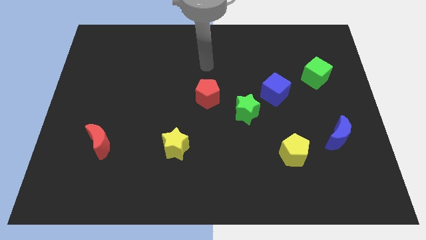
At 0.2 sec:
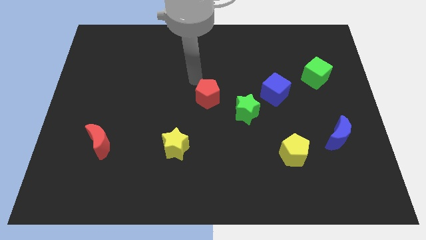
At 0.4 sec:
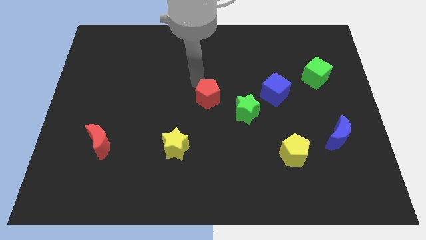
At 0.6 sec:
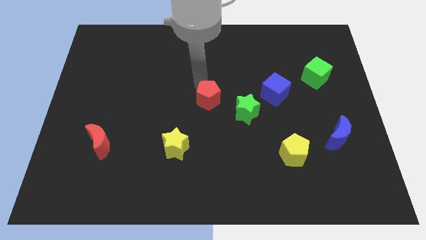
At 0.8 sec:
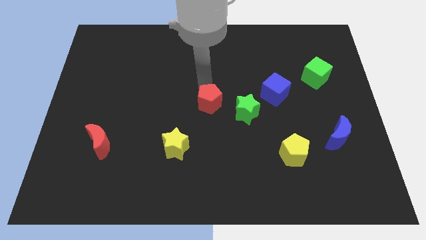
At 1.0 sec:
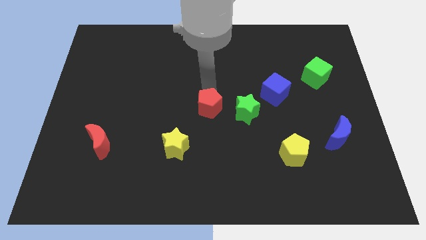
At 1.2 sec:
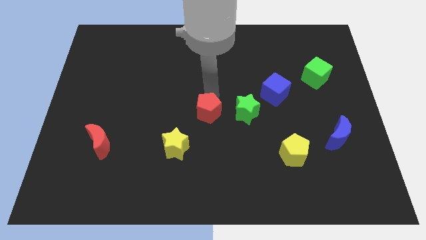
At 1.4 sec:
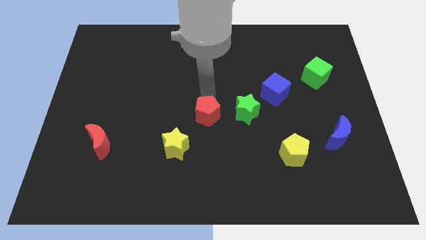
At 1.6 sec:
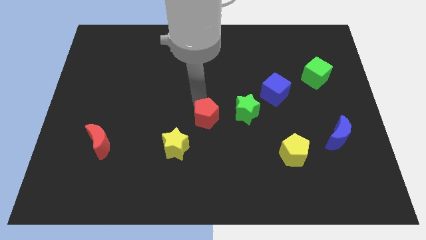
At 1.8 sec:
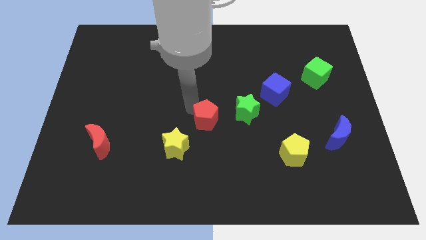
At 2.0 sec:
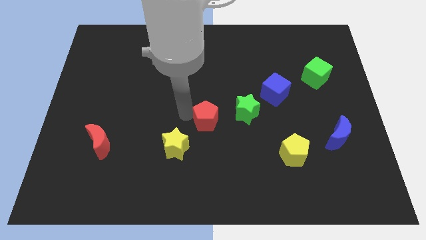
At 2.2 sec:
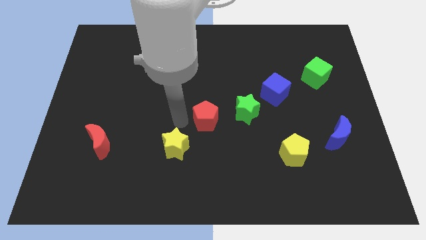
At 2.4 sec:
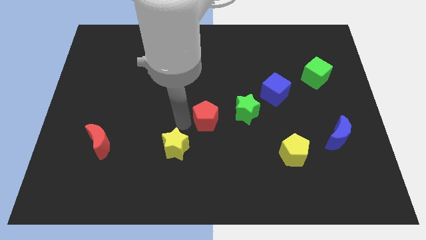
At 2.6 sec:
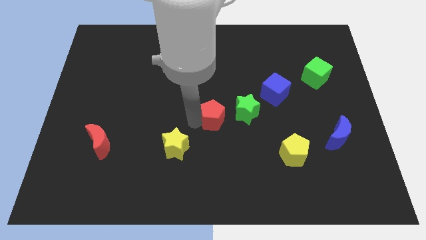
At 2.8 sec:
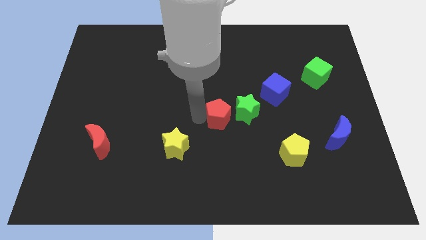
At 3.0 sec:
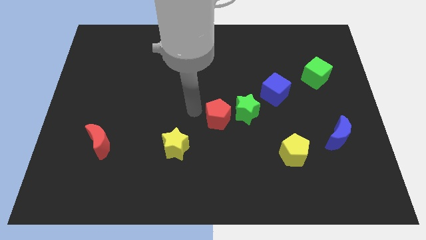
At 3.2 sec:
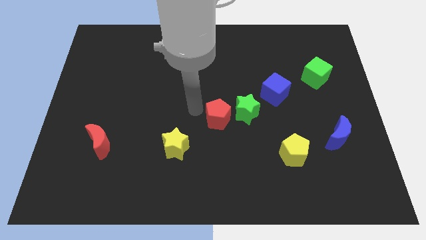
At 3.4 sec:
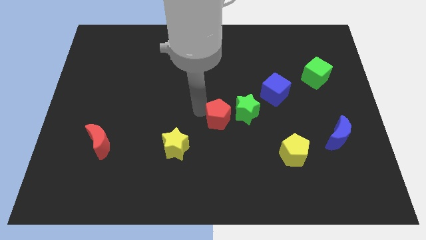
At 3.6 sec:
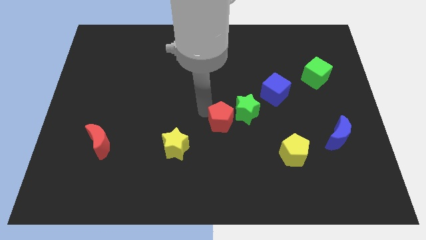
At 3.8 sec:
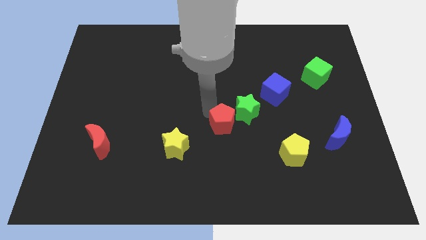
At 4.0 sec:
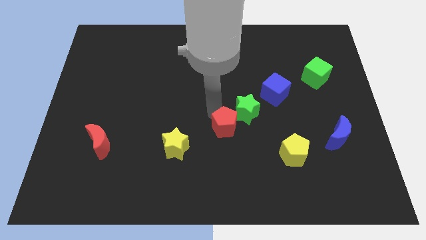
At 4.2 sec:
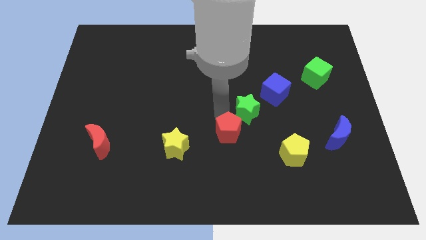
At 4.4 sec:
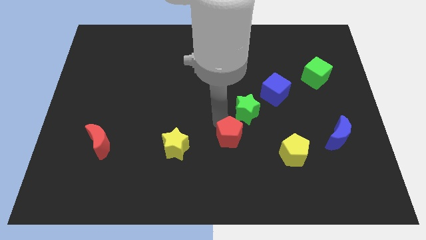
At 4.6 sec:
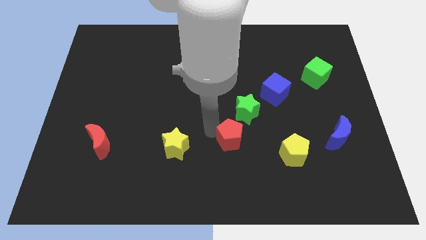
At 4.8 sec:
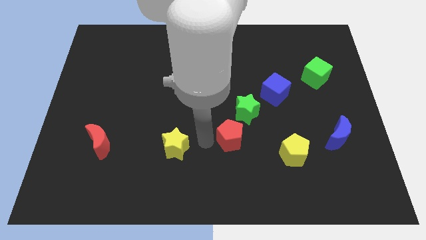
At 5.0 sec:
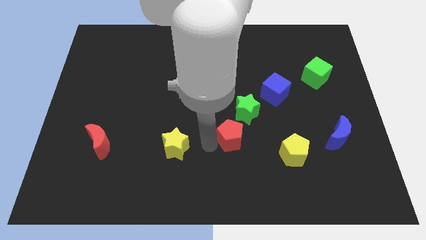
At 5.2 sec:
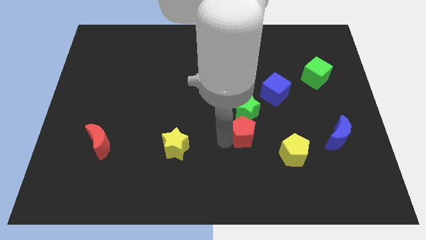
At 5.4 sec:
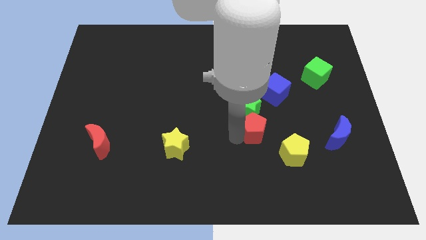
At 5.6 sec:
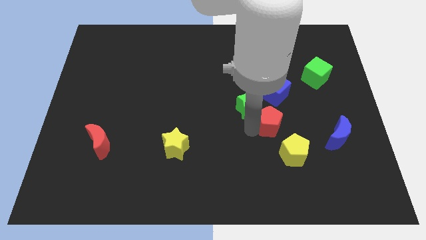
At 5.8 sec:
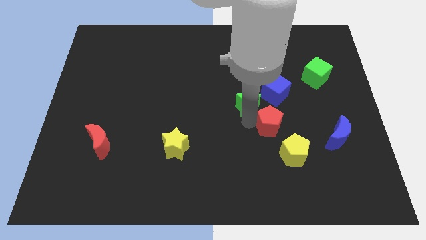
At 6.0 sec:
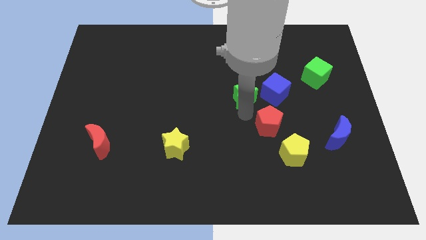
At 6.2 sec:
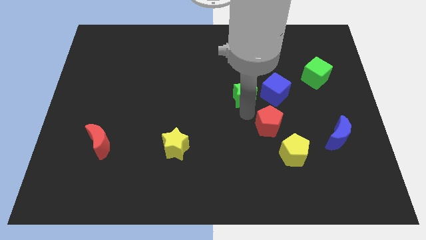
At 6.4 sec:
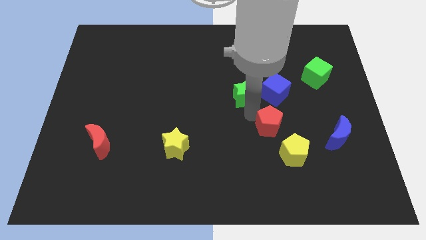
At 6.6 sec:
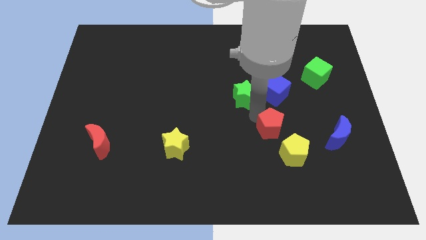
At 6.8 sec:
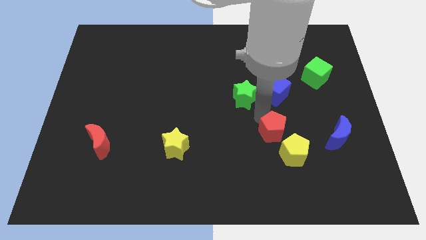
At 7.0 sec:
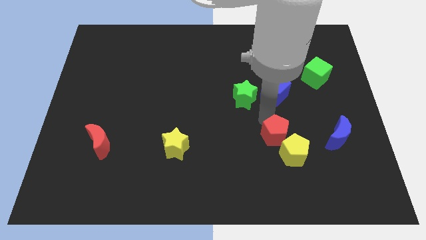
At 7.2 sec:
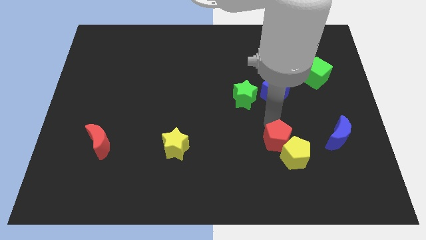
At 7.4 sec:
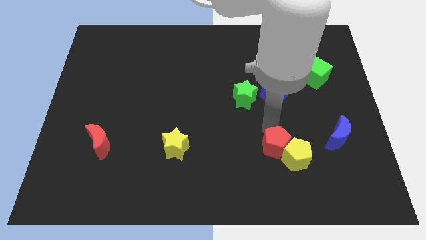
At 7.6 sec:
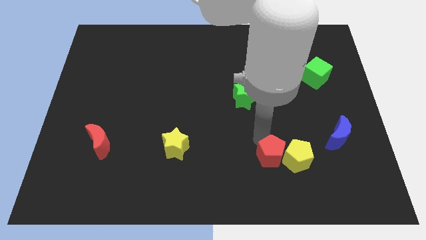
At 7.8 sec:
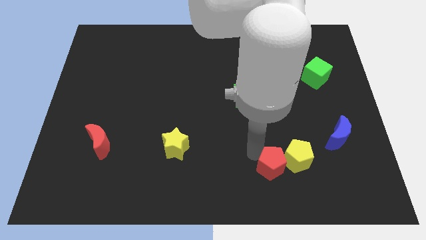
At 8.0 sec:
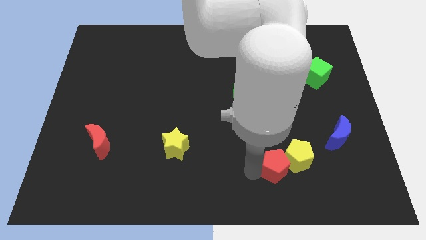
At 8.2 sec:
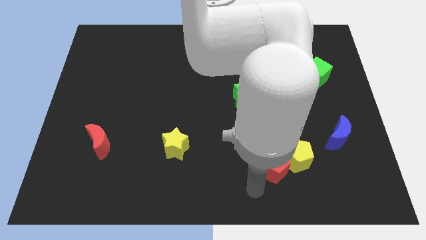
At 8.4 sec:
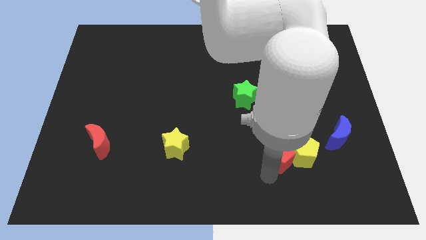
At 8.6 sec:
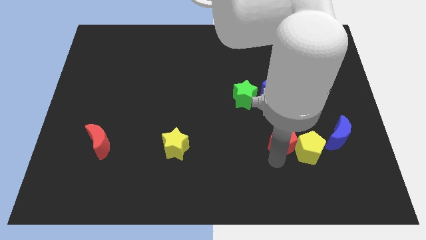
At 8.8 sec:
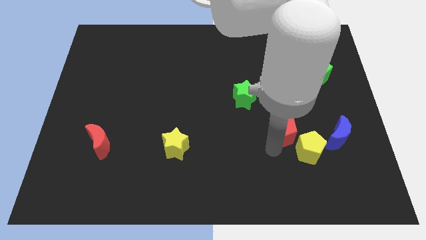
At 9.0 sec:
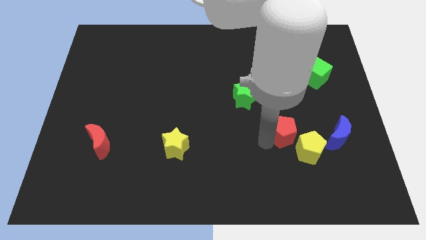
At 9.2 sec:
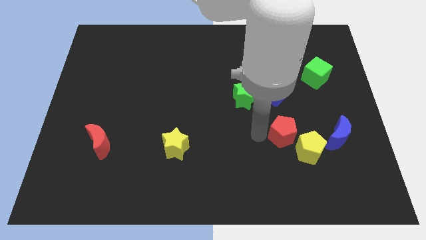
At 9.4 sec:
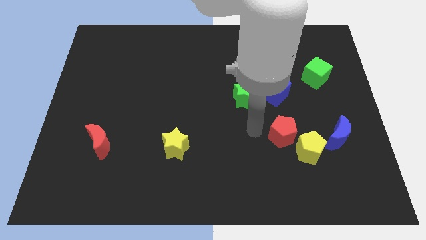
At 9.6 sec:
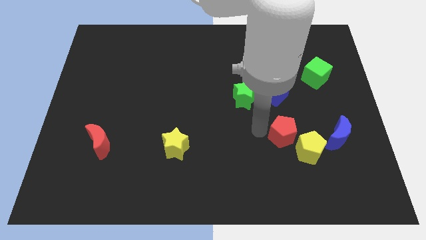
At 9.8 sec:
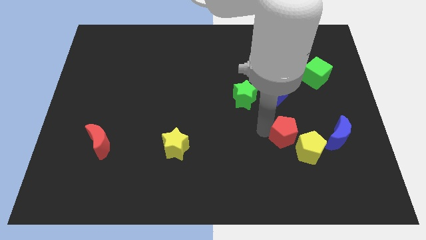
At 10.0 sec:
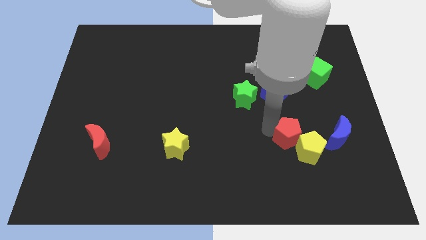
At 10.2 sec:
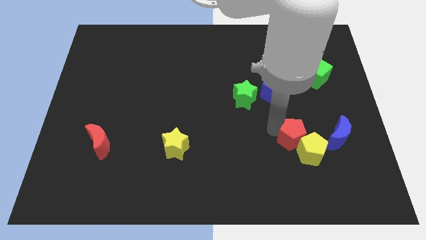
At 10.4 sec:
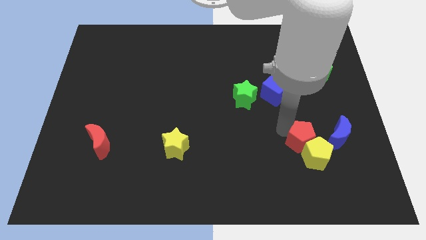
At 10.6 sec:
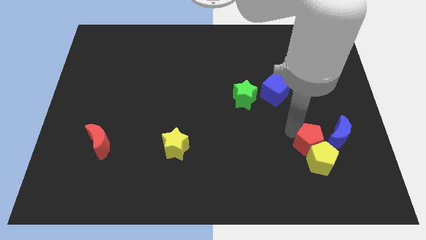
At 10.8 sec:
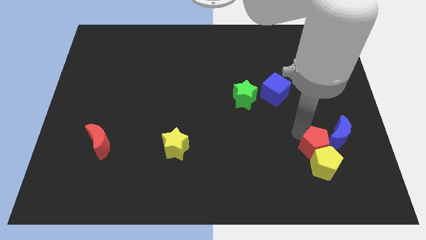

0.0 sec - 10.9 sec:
slide the red pentagon next to the blue moon

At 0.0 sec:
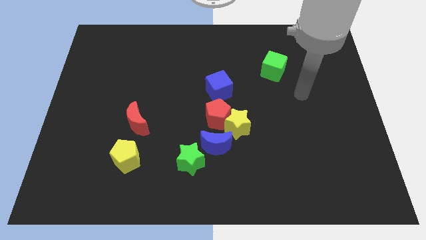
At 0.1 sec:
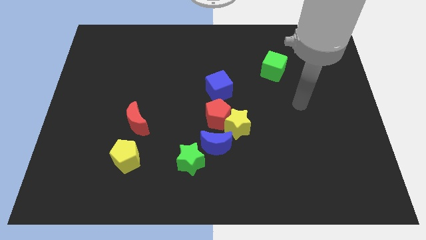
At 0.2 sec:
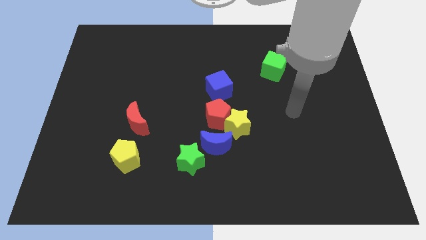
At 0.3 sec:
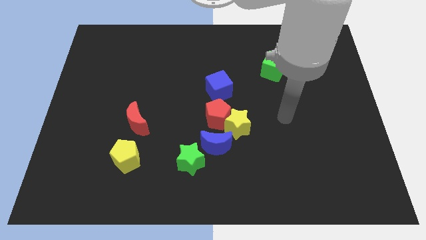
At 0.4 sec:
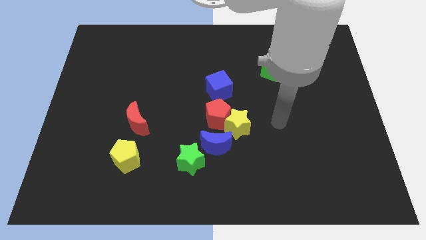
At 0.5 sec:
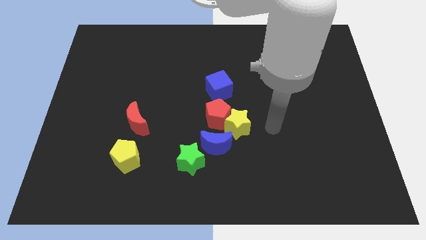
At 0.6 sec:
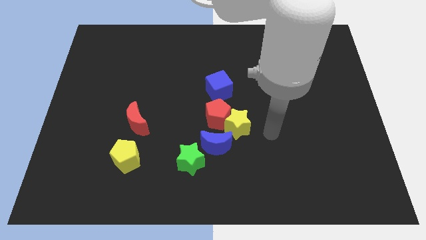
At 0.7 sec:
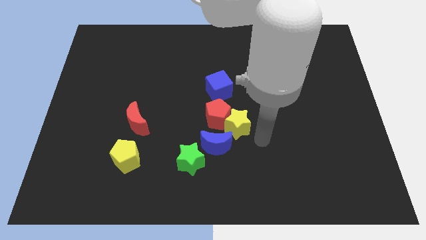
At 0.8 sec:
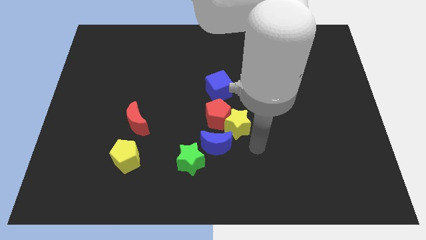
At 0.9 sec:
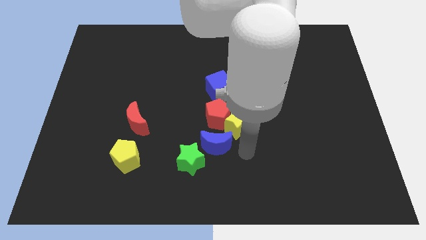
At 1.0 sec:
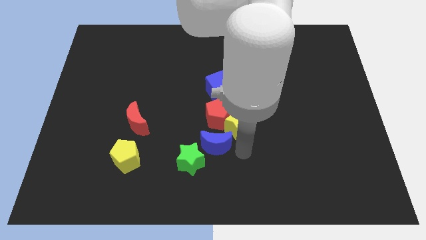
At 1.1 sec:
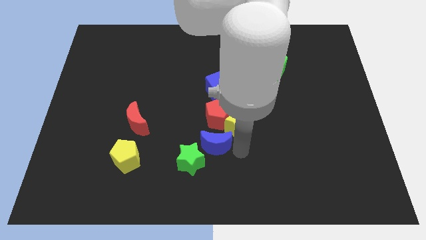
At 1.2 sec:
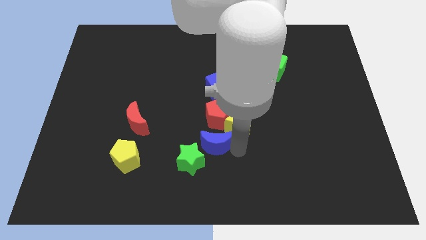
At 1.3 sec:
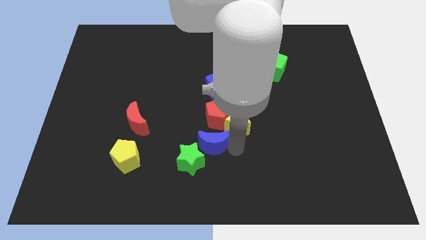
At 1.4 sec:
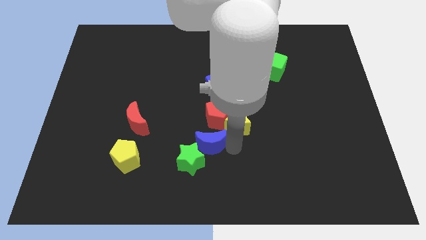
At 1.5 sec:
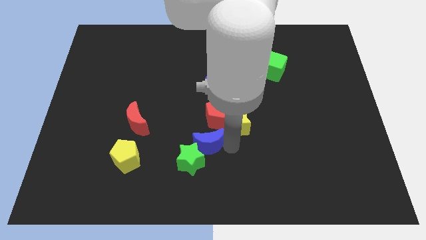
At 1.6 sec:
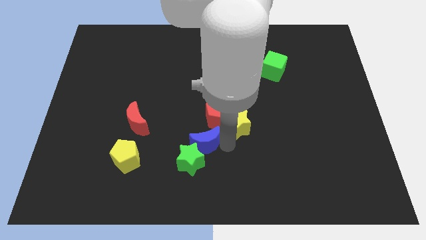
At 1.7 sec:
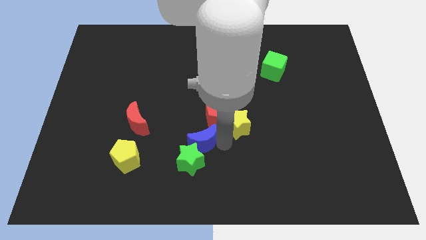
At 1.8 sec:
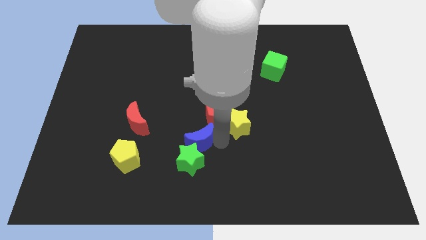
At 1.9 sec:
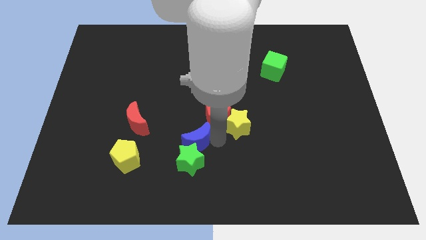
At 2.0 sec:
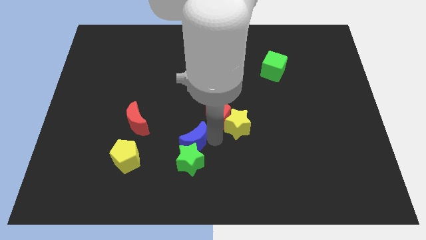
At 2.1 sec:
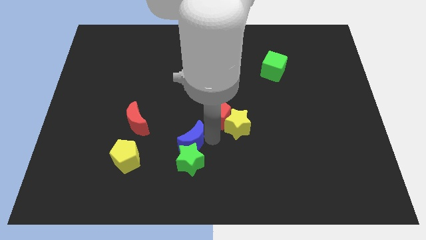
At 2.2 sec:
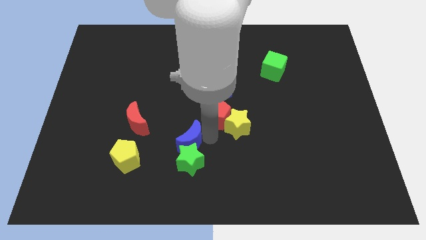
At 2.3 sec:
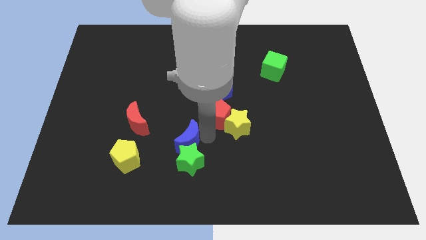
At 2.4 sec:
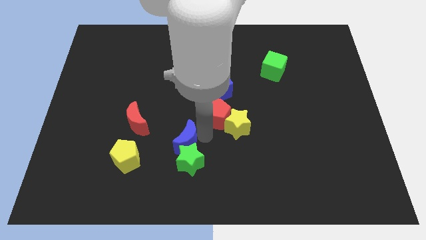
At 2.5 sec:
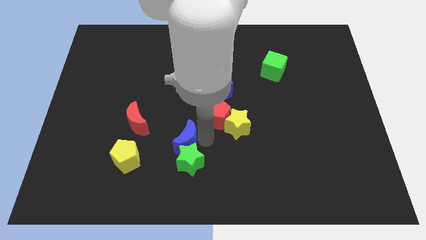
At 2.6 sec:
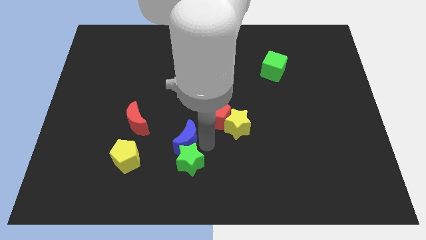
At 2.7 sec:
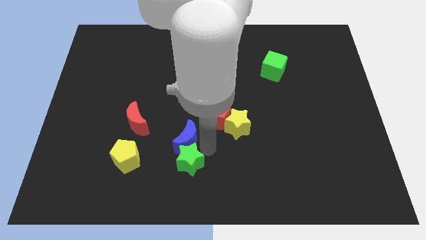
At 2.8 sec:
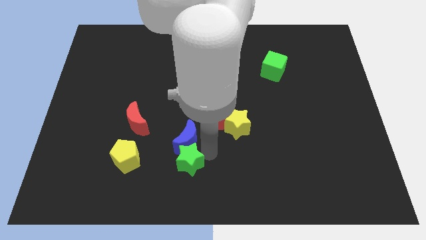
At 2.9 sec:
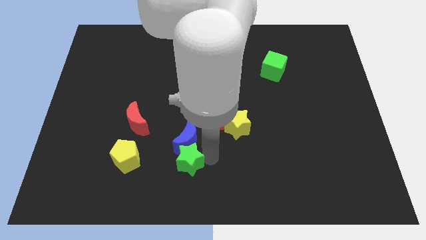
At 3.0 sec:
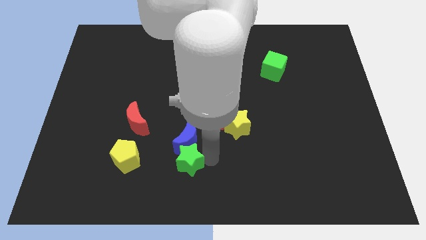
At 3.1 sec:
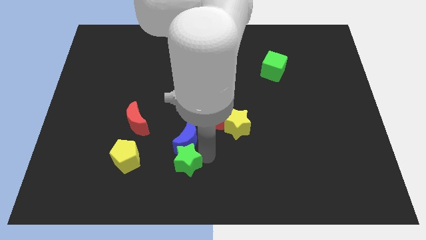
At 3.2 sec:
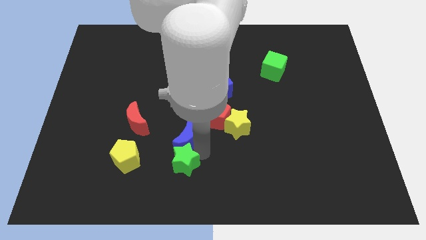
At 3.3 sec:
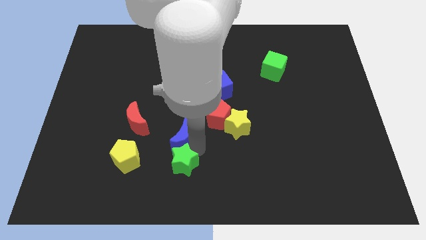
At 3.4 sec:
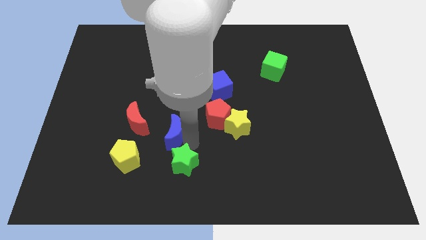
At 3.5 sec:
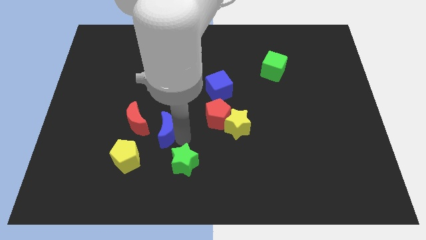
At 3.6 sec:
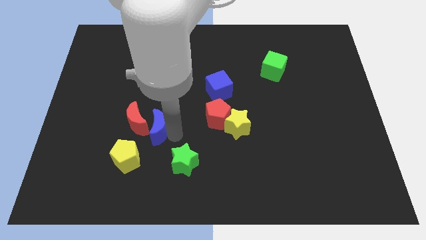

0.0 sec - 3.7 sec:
slide the blue moon close to the red moon
